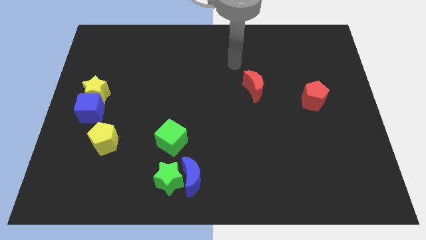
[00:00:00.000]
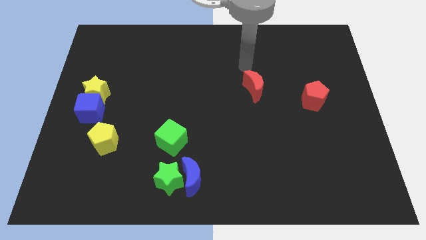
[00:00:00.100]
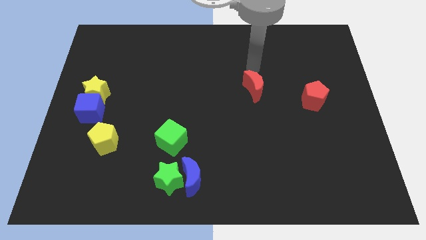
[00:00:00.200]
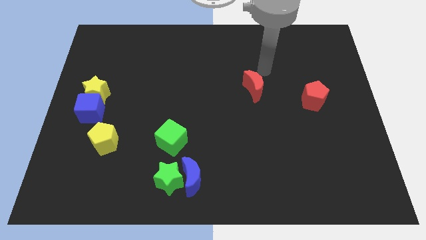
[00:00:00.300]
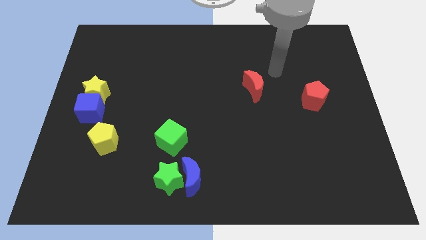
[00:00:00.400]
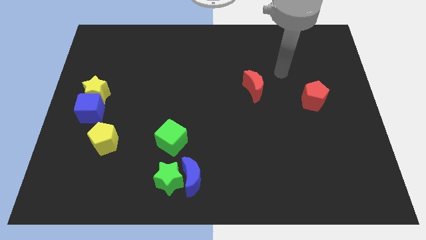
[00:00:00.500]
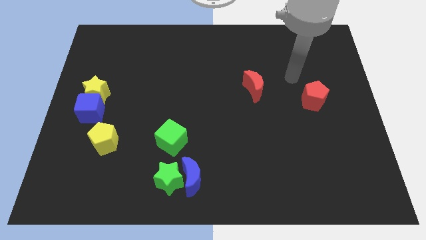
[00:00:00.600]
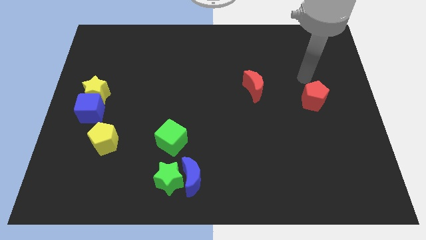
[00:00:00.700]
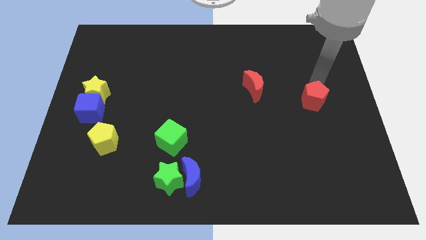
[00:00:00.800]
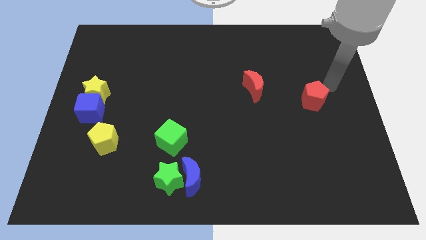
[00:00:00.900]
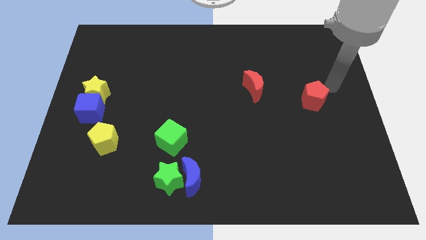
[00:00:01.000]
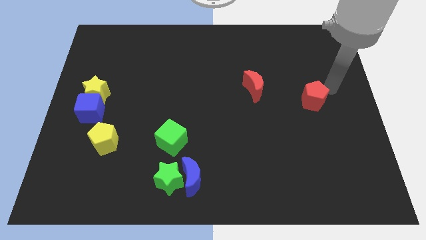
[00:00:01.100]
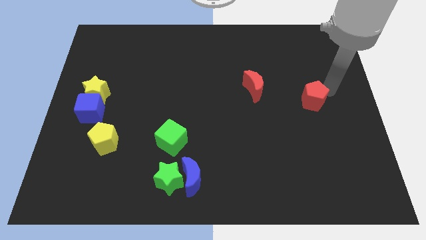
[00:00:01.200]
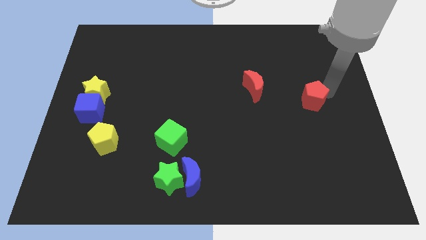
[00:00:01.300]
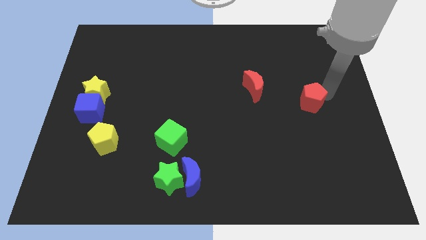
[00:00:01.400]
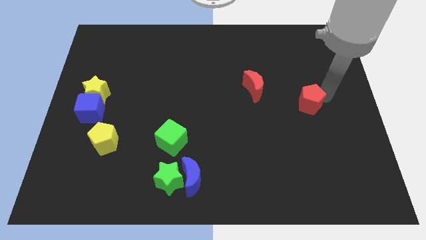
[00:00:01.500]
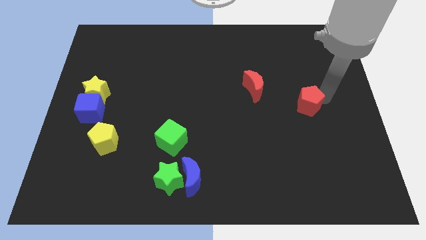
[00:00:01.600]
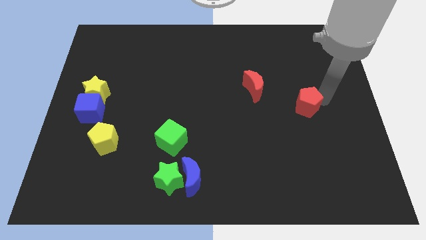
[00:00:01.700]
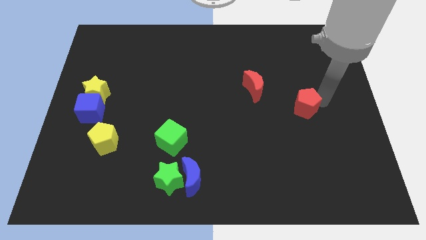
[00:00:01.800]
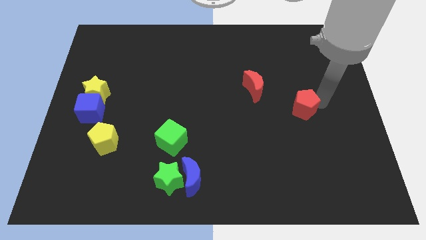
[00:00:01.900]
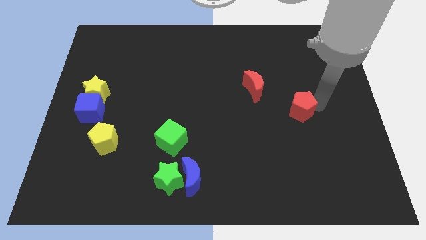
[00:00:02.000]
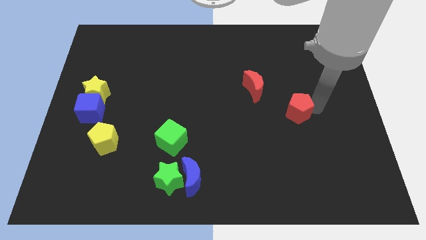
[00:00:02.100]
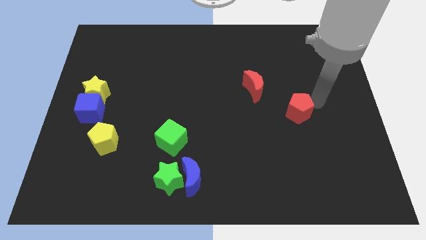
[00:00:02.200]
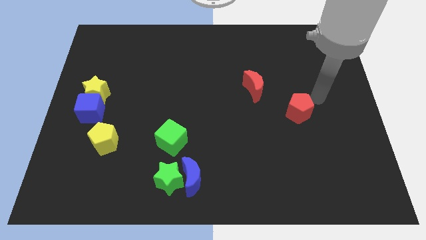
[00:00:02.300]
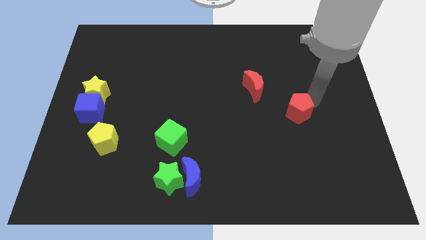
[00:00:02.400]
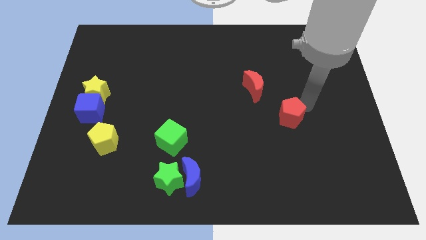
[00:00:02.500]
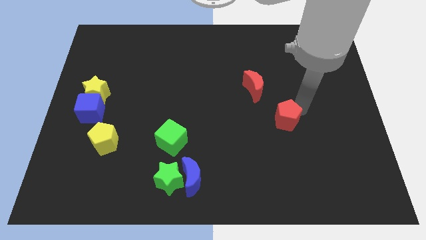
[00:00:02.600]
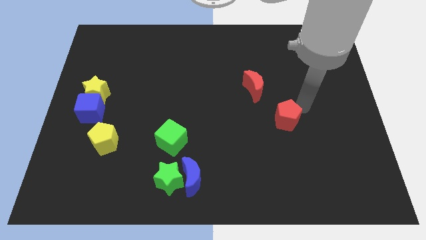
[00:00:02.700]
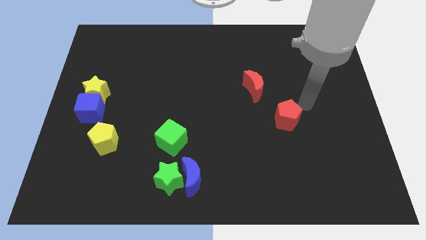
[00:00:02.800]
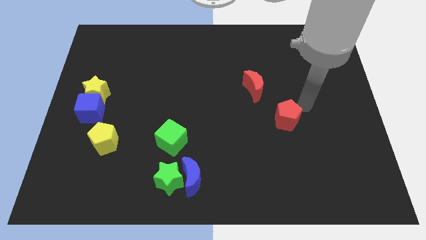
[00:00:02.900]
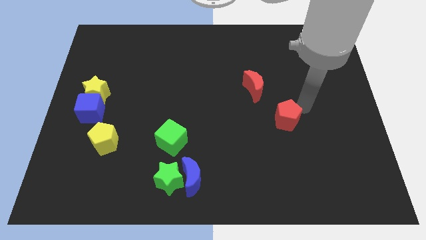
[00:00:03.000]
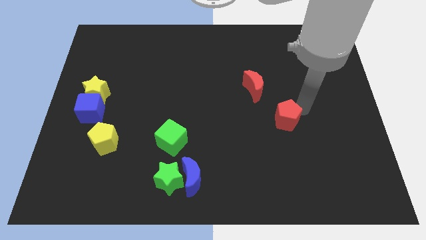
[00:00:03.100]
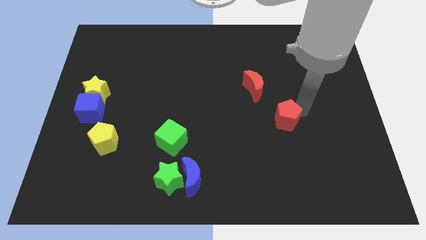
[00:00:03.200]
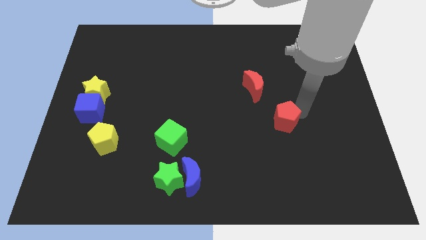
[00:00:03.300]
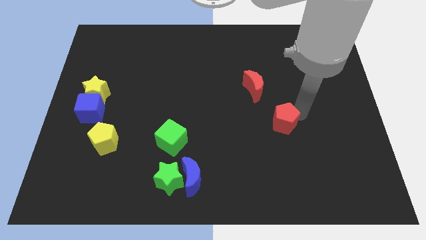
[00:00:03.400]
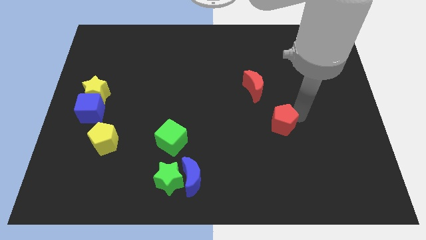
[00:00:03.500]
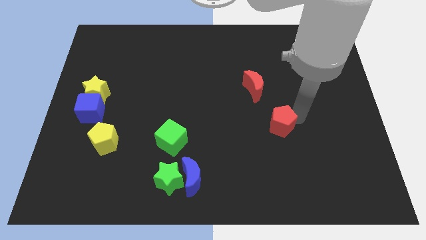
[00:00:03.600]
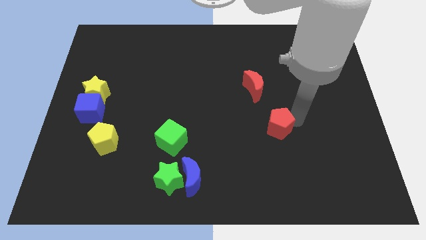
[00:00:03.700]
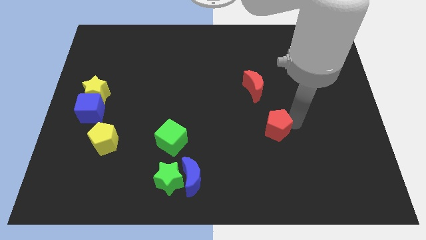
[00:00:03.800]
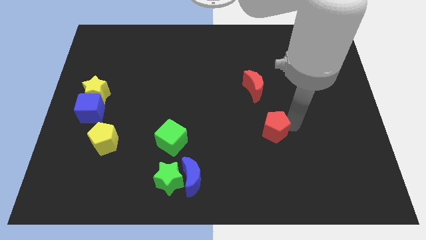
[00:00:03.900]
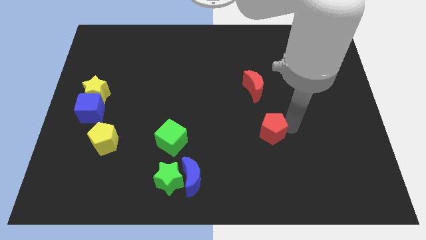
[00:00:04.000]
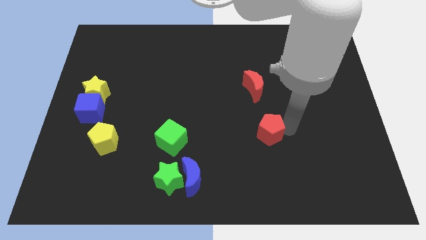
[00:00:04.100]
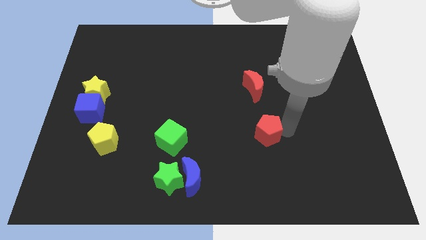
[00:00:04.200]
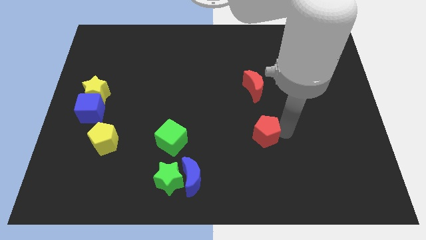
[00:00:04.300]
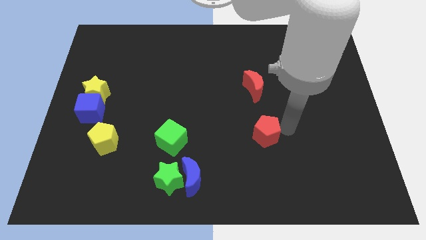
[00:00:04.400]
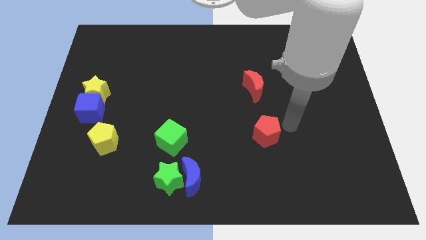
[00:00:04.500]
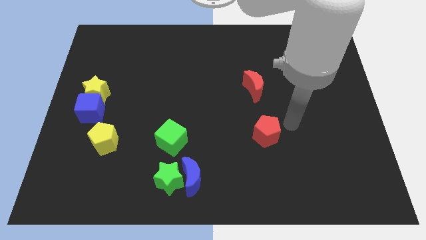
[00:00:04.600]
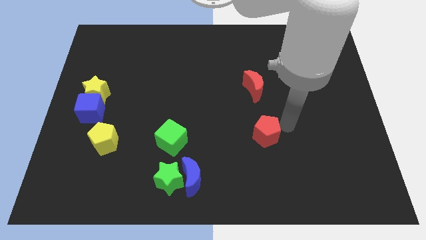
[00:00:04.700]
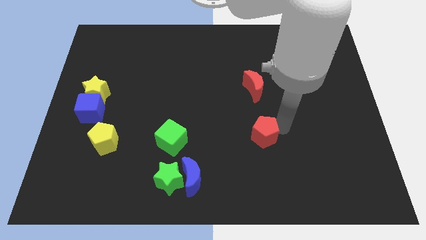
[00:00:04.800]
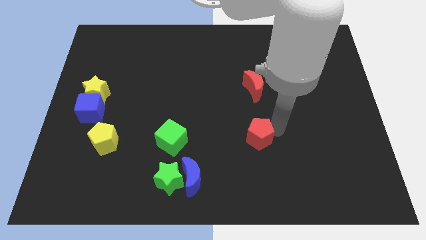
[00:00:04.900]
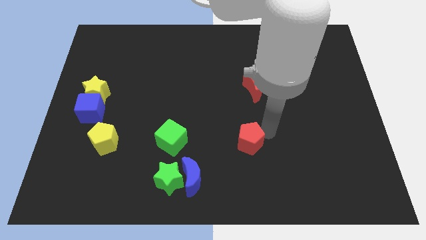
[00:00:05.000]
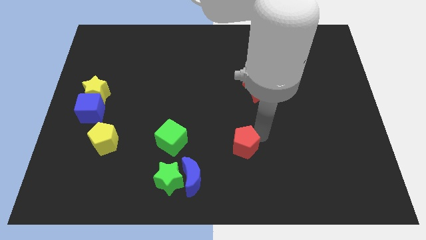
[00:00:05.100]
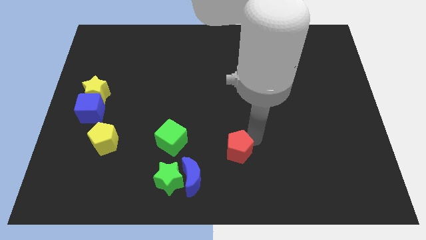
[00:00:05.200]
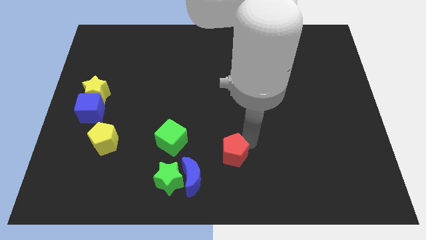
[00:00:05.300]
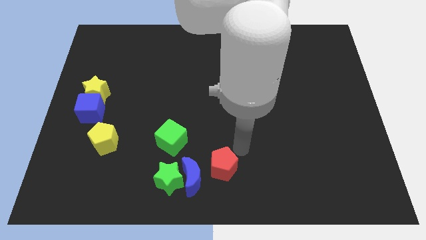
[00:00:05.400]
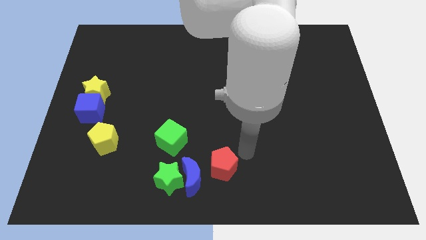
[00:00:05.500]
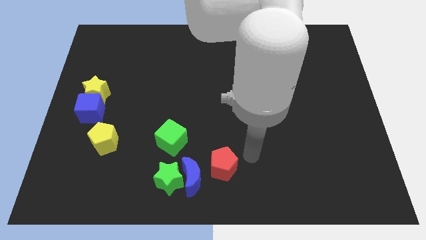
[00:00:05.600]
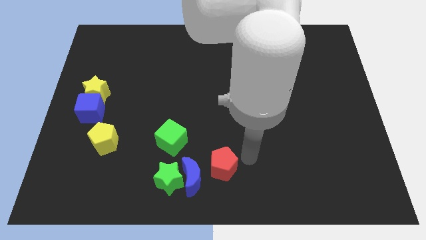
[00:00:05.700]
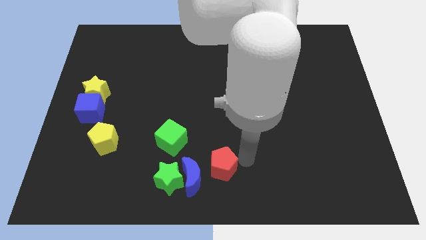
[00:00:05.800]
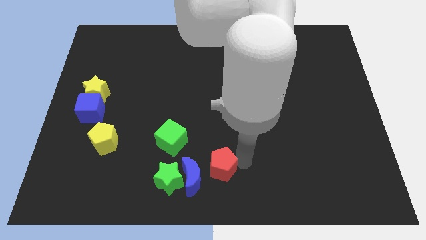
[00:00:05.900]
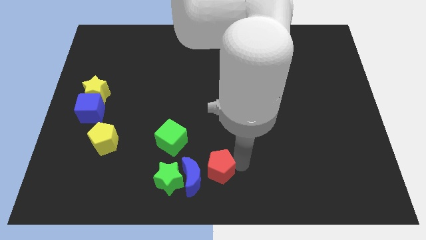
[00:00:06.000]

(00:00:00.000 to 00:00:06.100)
push the red pentagon next to the blue moon

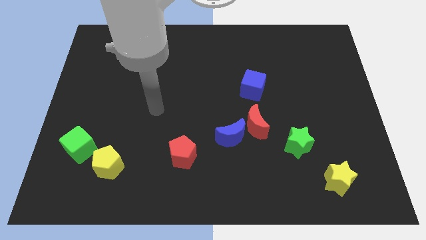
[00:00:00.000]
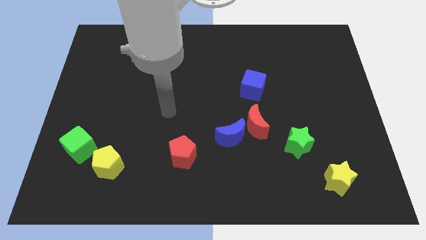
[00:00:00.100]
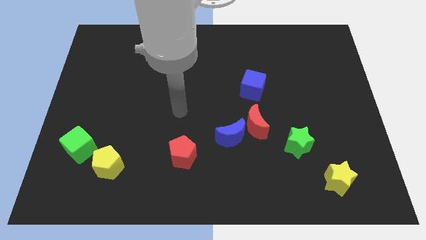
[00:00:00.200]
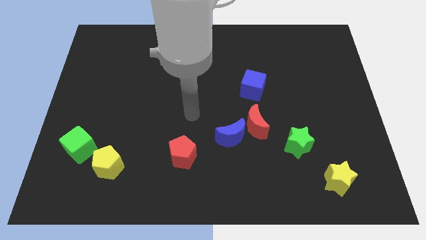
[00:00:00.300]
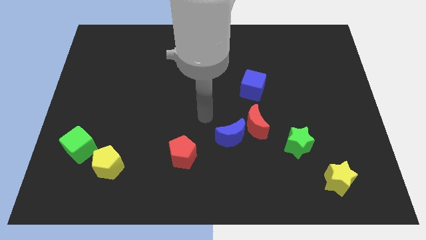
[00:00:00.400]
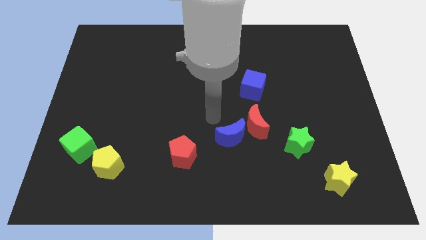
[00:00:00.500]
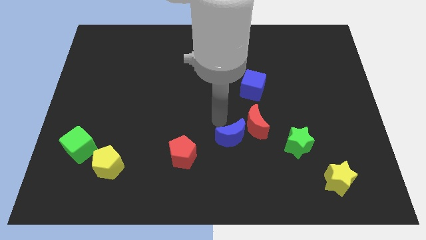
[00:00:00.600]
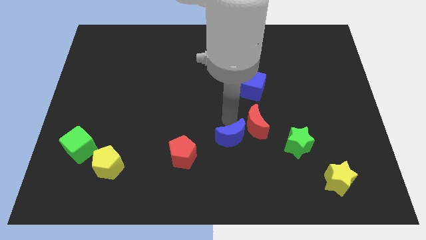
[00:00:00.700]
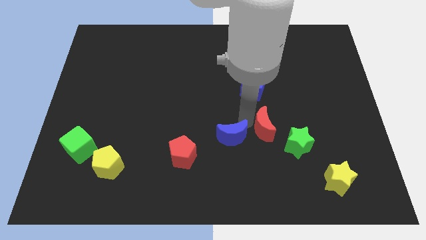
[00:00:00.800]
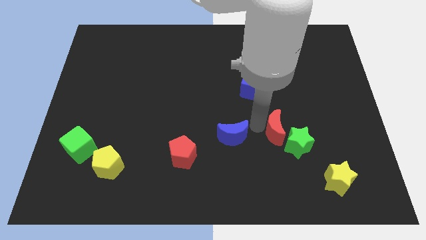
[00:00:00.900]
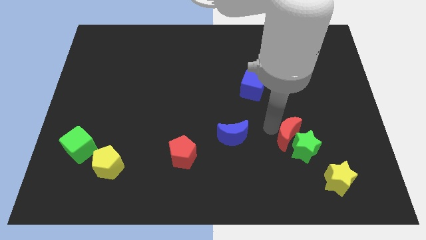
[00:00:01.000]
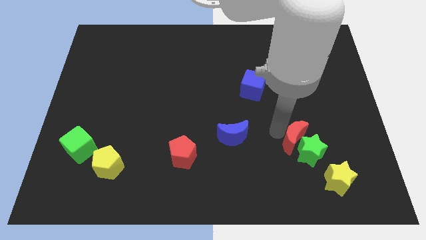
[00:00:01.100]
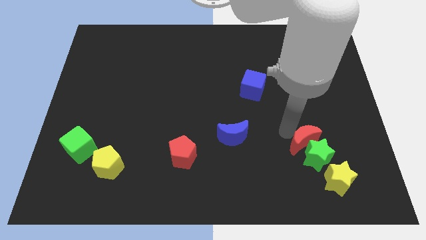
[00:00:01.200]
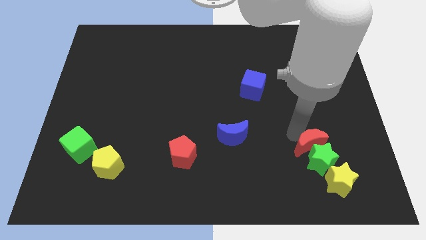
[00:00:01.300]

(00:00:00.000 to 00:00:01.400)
move the green star to the yellow star
